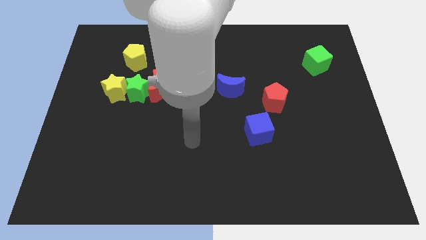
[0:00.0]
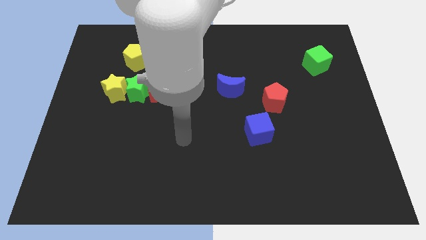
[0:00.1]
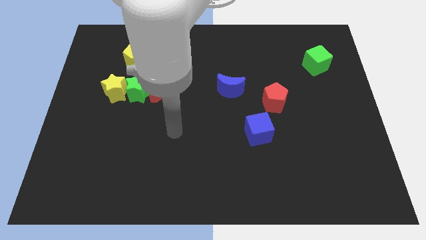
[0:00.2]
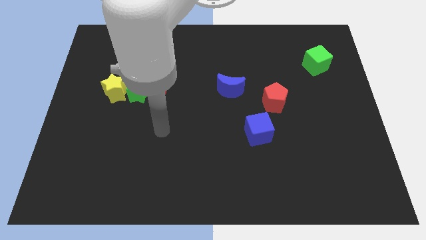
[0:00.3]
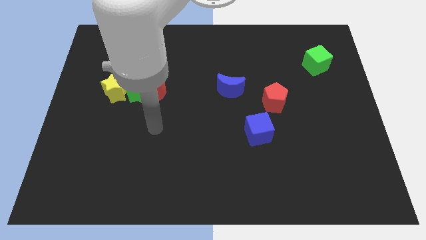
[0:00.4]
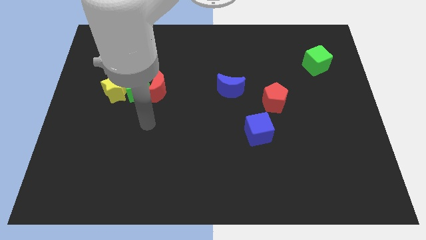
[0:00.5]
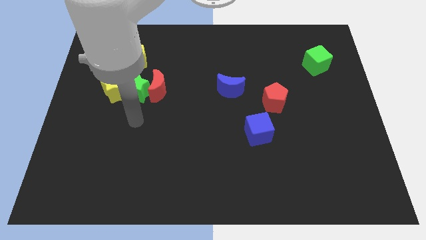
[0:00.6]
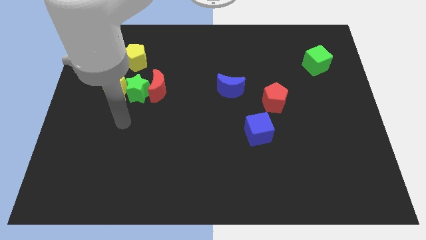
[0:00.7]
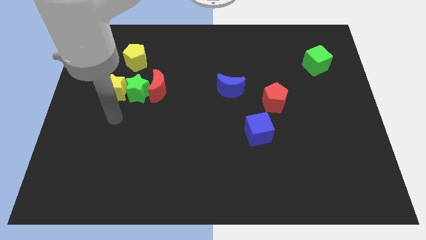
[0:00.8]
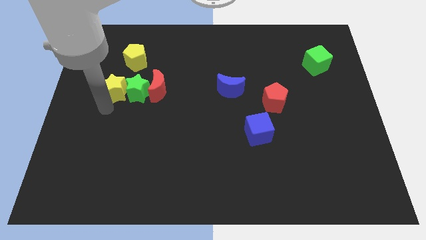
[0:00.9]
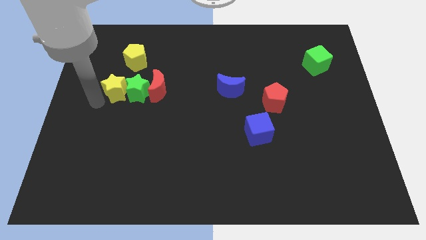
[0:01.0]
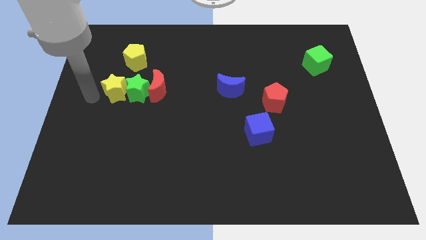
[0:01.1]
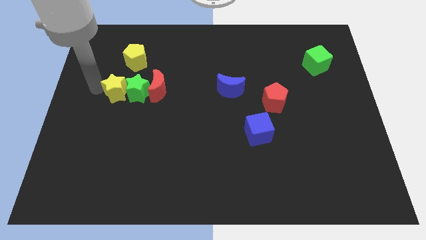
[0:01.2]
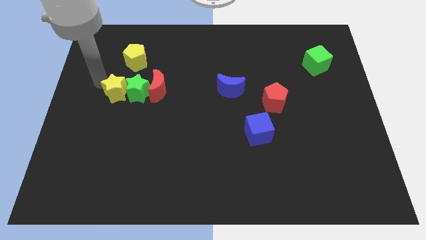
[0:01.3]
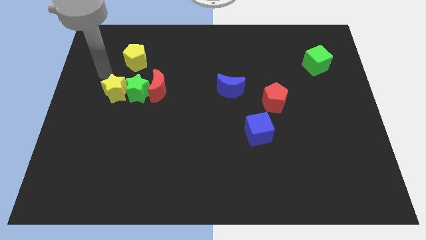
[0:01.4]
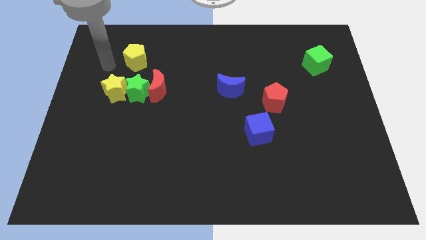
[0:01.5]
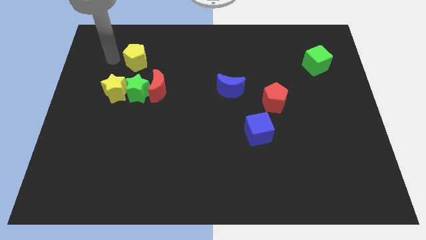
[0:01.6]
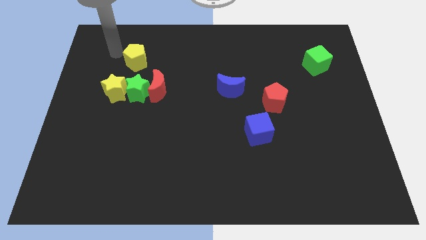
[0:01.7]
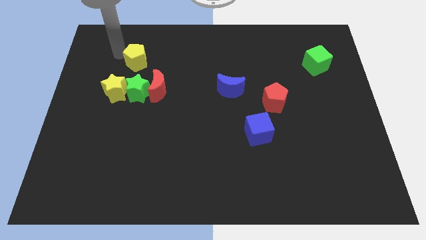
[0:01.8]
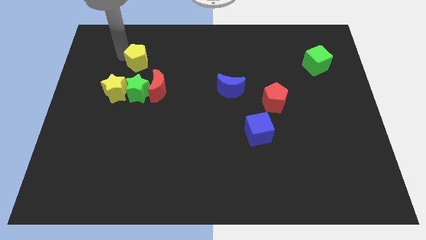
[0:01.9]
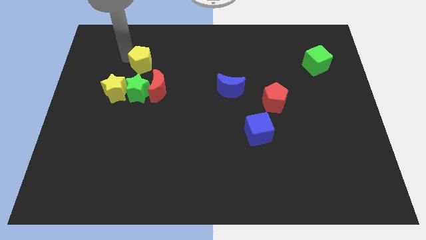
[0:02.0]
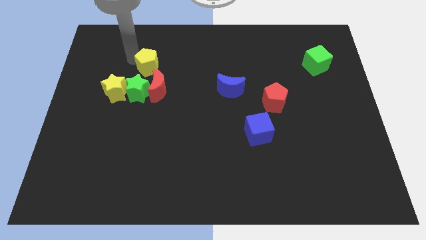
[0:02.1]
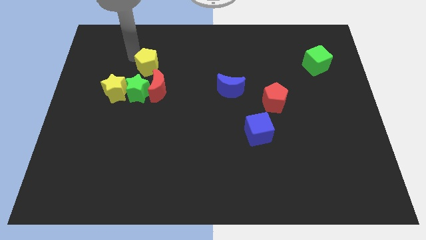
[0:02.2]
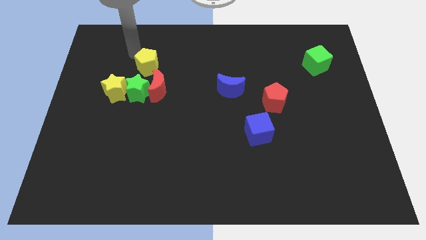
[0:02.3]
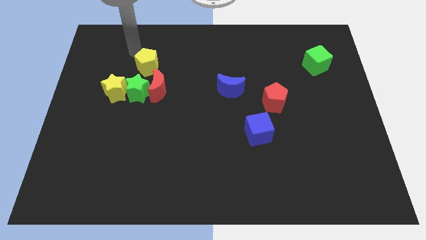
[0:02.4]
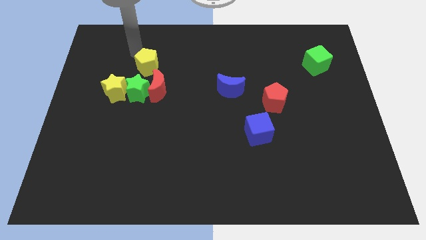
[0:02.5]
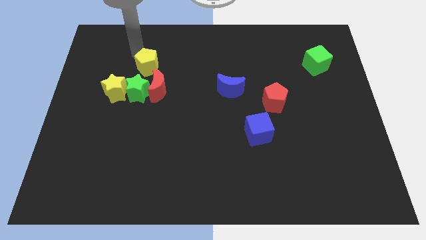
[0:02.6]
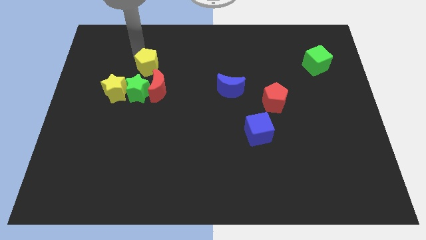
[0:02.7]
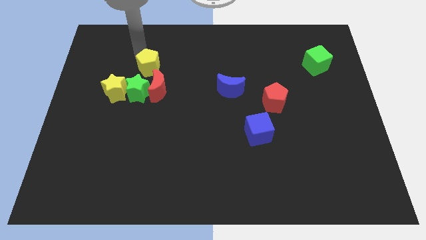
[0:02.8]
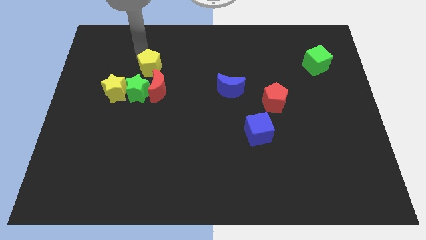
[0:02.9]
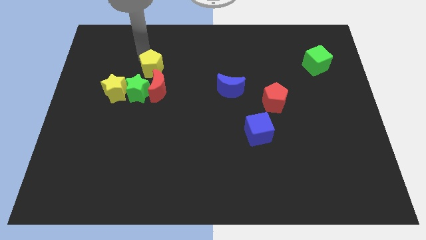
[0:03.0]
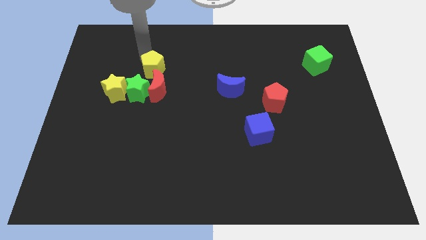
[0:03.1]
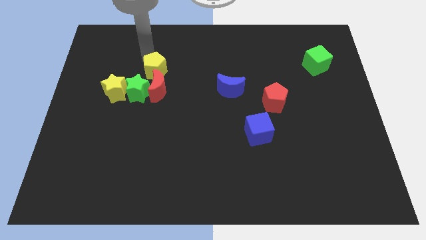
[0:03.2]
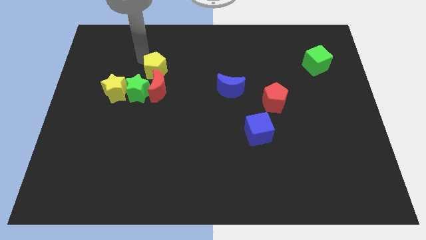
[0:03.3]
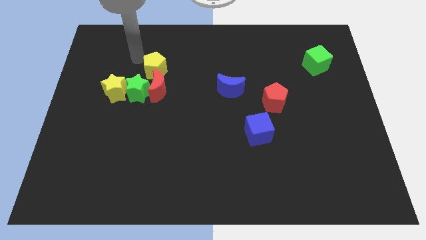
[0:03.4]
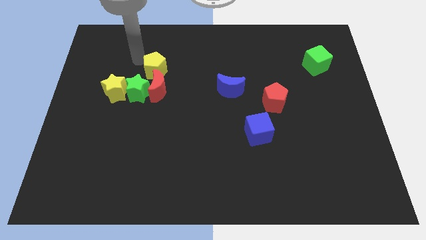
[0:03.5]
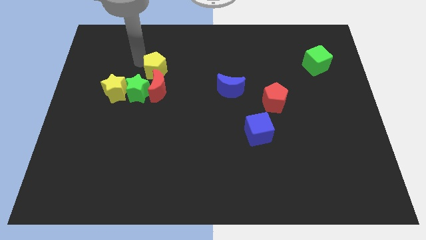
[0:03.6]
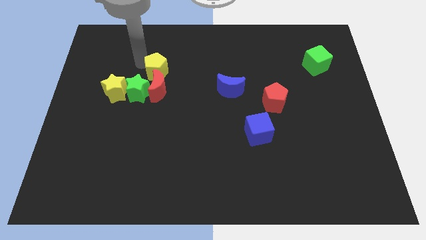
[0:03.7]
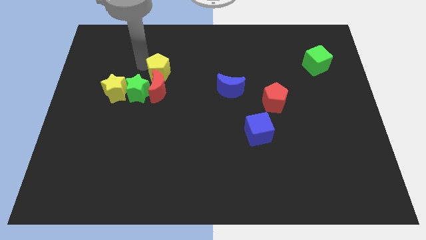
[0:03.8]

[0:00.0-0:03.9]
slightly push the yellow pentagon downwards and right diagonally

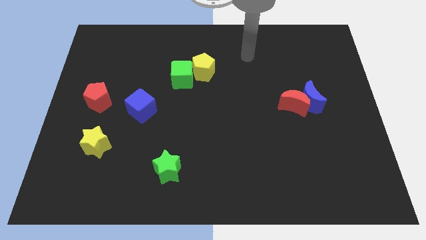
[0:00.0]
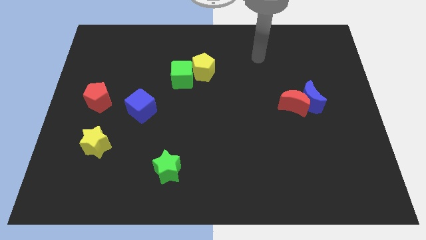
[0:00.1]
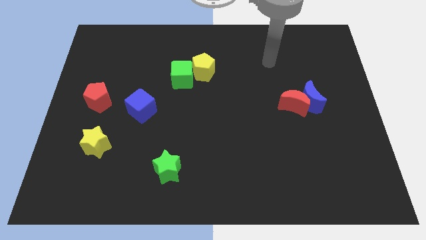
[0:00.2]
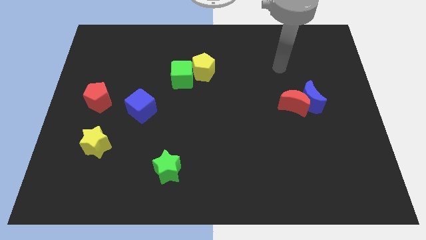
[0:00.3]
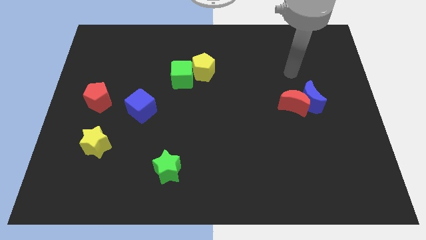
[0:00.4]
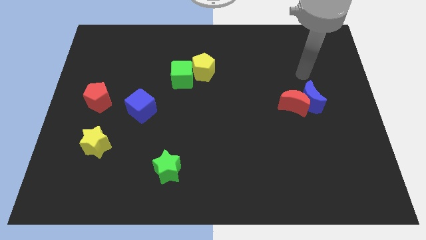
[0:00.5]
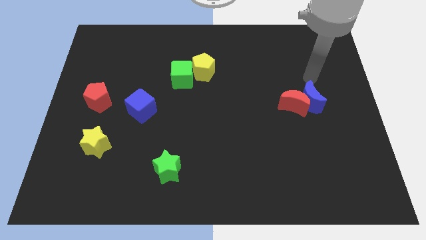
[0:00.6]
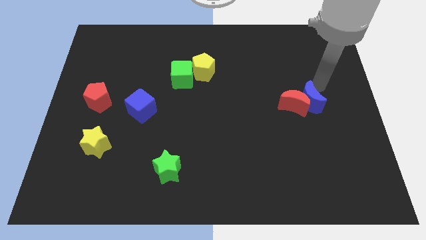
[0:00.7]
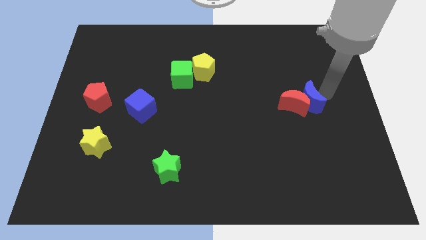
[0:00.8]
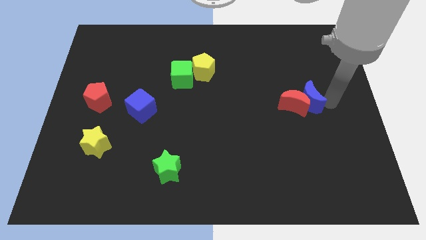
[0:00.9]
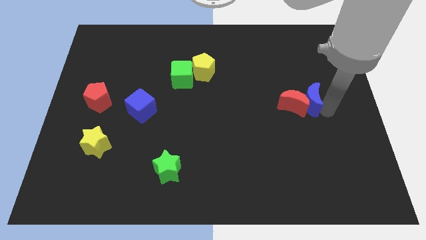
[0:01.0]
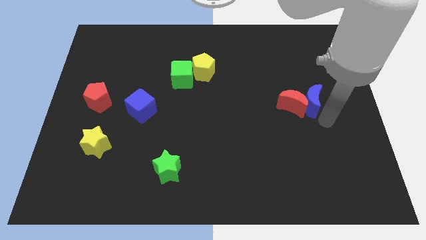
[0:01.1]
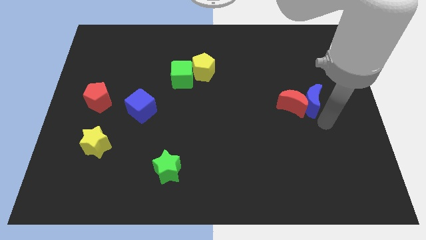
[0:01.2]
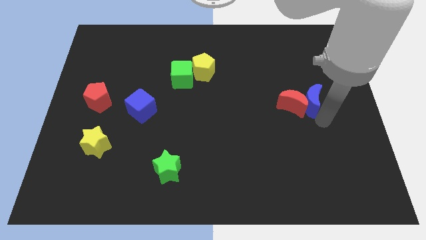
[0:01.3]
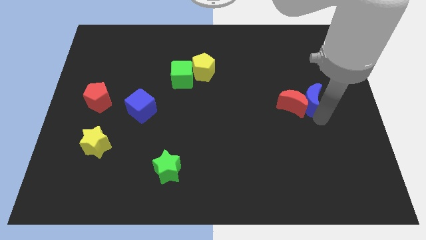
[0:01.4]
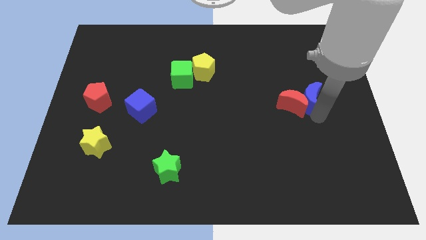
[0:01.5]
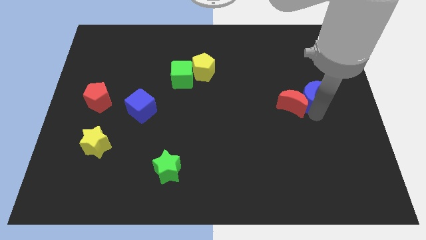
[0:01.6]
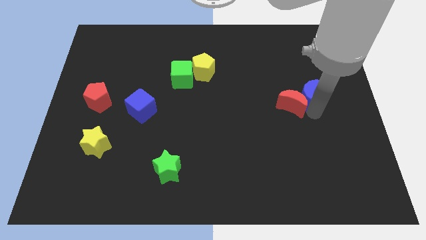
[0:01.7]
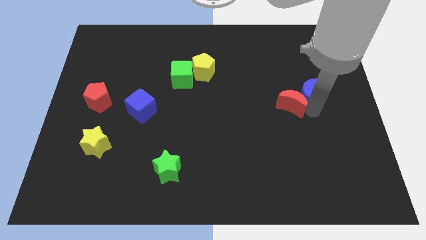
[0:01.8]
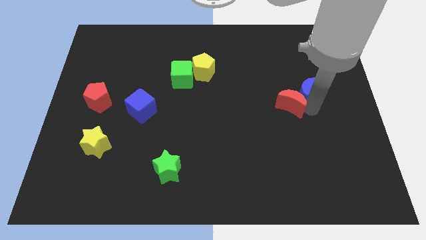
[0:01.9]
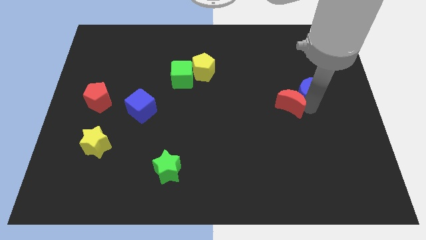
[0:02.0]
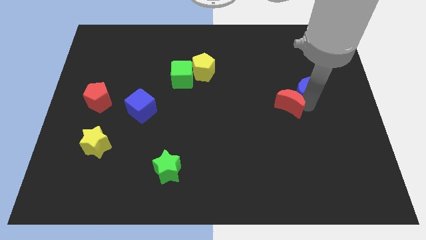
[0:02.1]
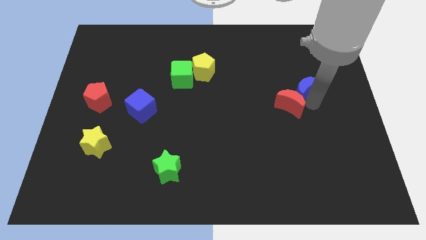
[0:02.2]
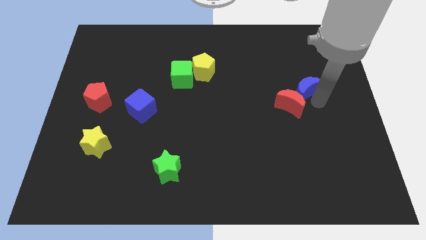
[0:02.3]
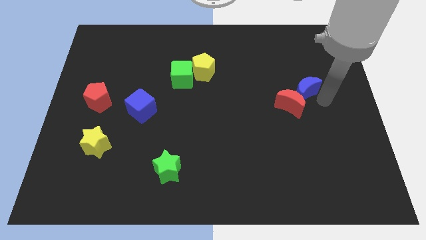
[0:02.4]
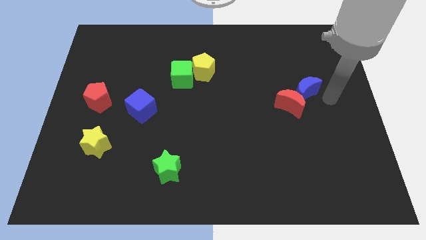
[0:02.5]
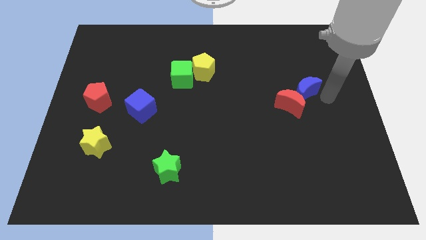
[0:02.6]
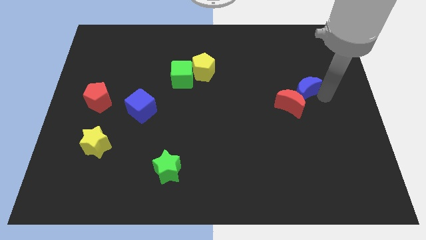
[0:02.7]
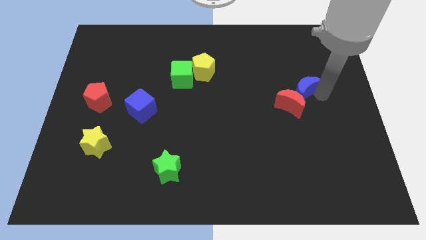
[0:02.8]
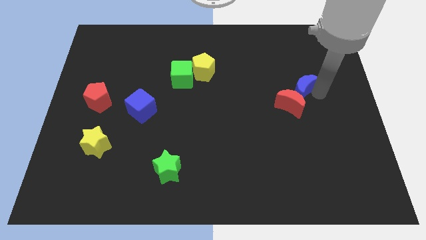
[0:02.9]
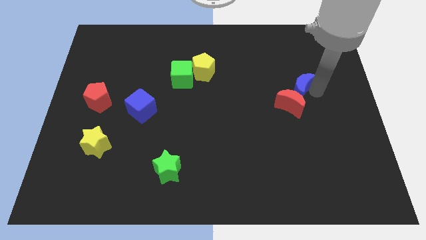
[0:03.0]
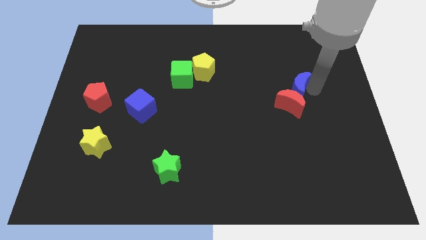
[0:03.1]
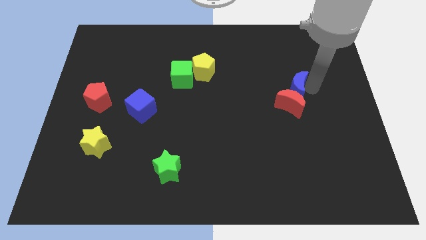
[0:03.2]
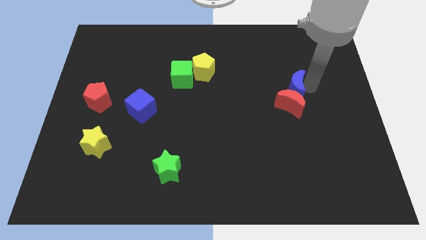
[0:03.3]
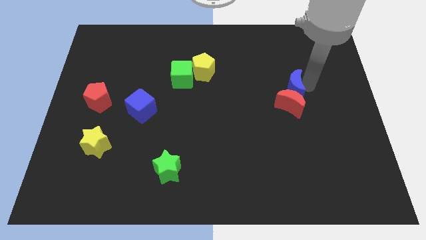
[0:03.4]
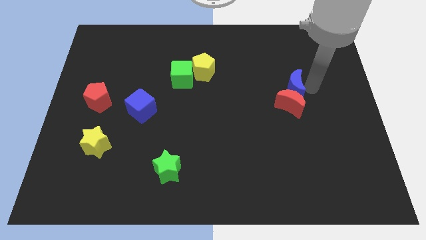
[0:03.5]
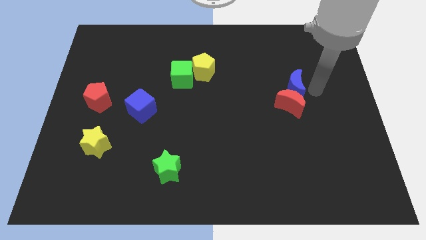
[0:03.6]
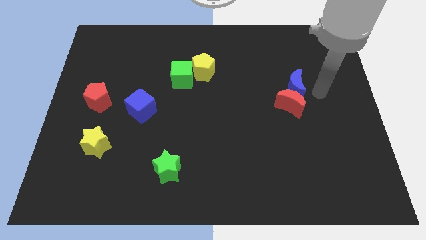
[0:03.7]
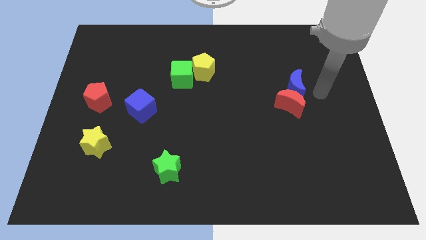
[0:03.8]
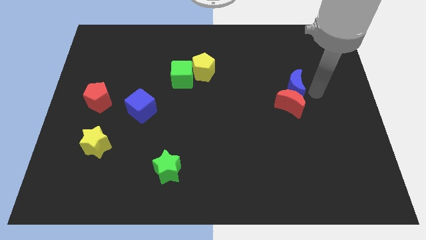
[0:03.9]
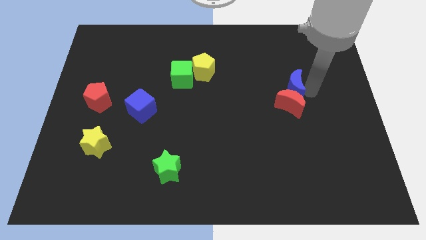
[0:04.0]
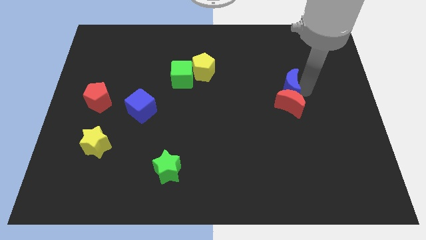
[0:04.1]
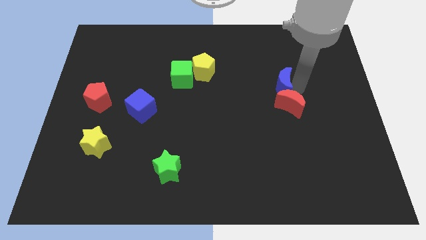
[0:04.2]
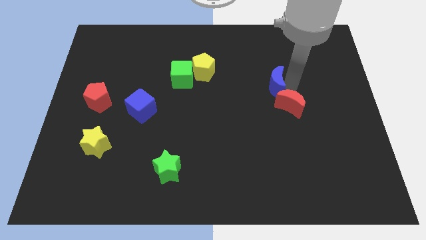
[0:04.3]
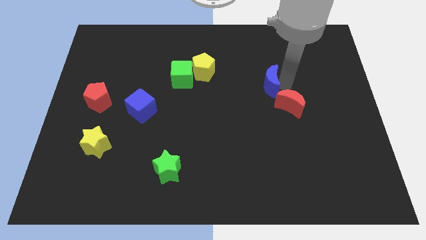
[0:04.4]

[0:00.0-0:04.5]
slightly slide the blue moon left
